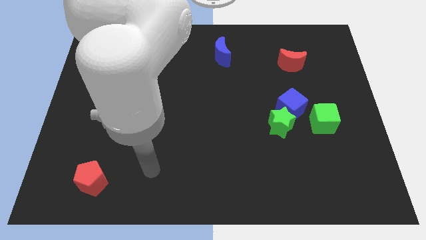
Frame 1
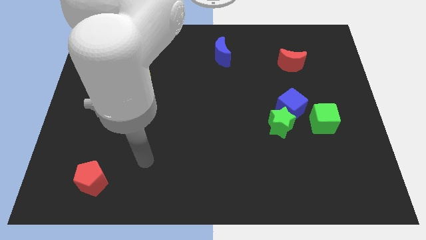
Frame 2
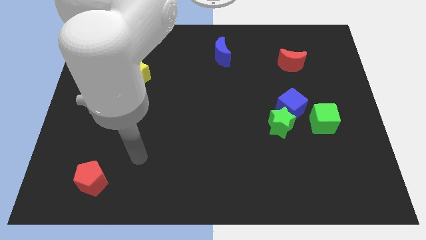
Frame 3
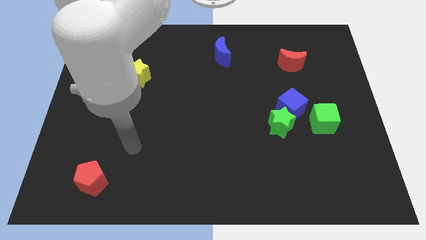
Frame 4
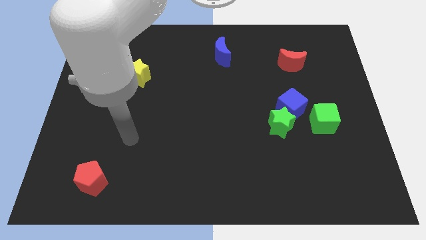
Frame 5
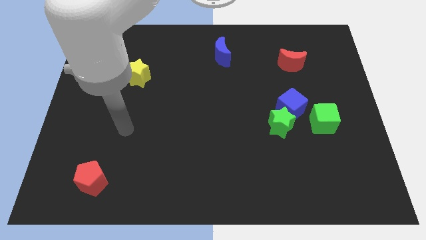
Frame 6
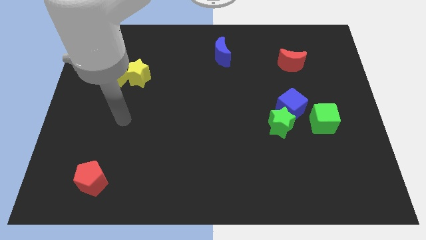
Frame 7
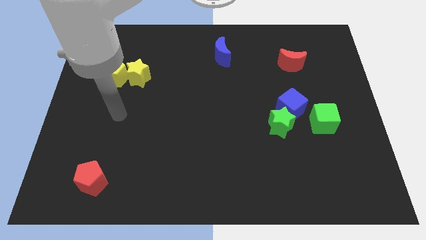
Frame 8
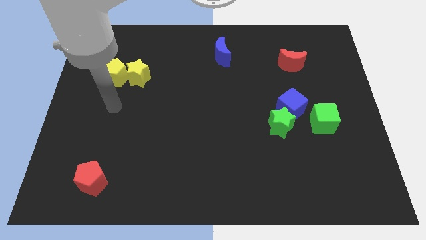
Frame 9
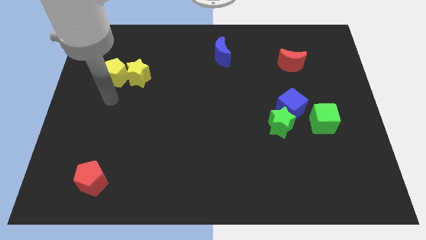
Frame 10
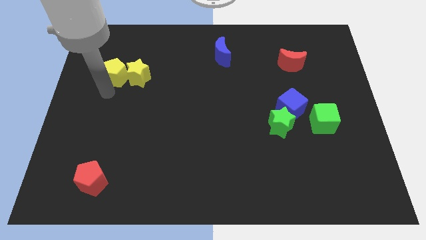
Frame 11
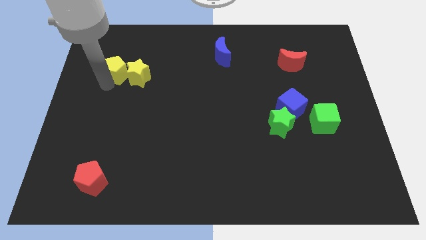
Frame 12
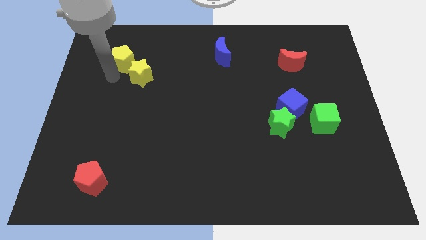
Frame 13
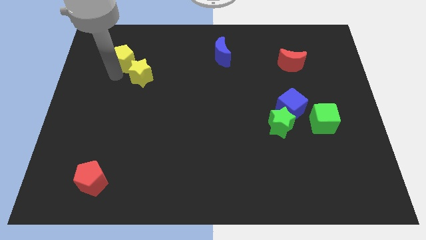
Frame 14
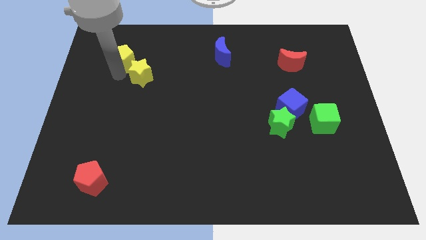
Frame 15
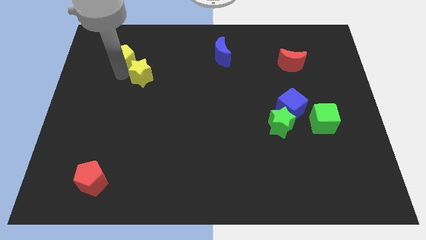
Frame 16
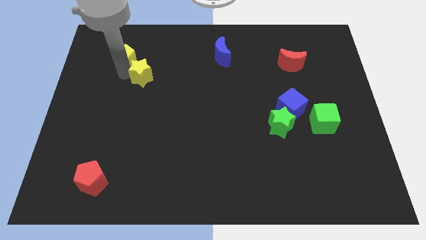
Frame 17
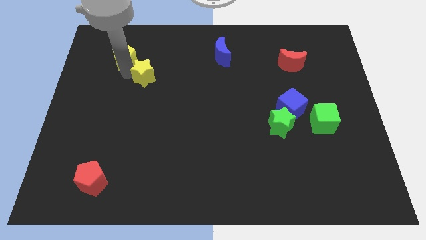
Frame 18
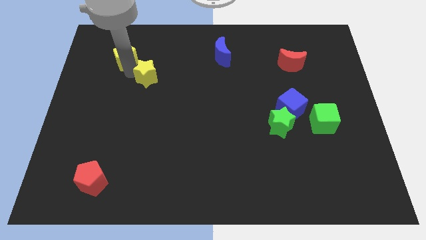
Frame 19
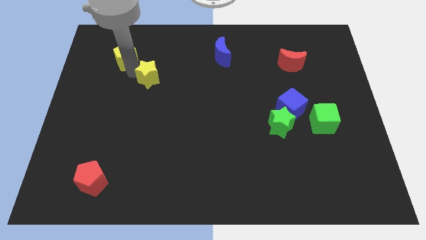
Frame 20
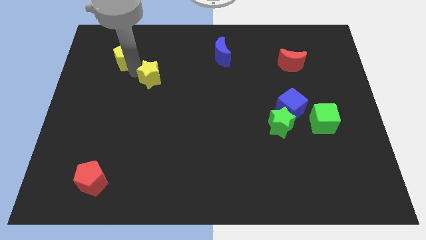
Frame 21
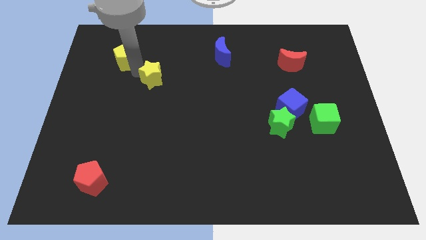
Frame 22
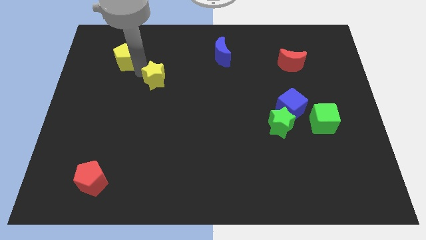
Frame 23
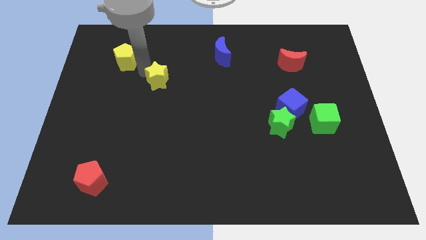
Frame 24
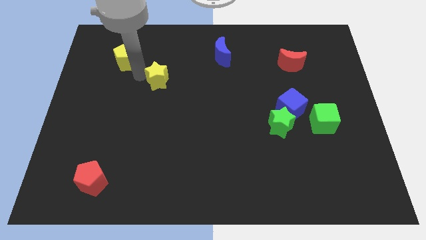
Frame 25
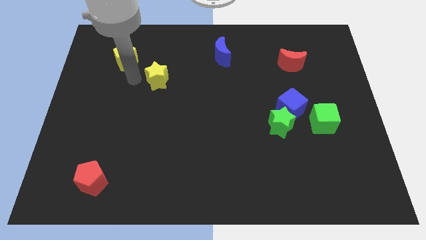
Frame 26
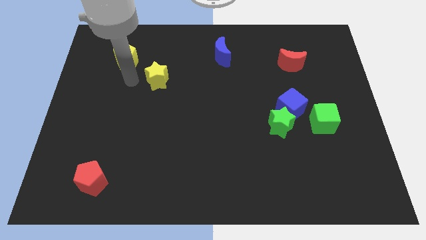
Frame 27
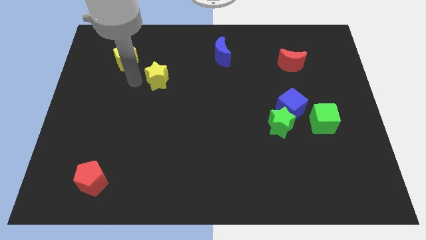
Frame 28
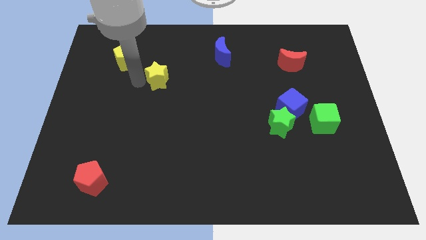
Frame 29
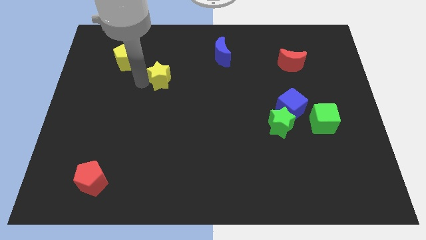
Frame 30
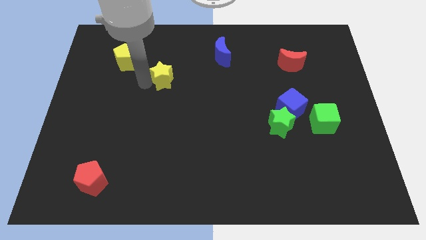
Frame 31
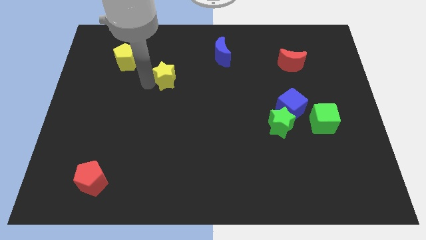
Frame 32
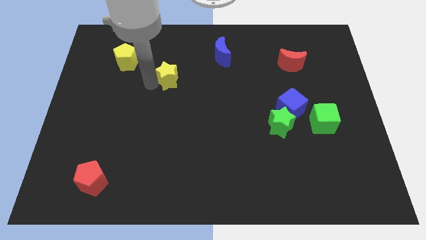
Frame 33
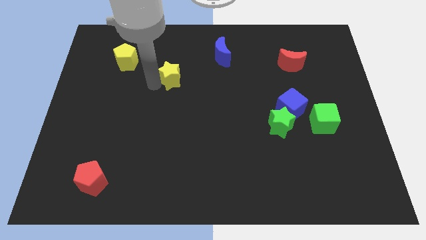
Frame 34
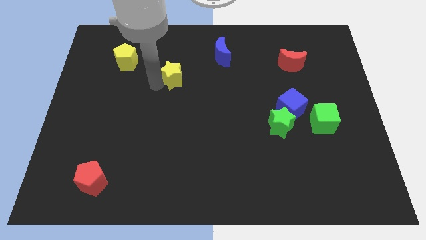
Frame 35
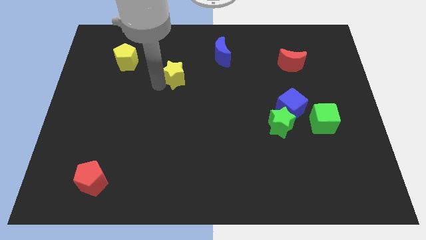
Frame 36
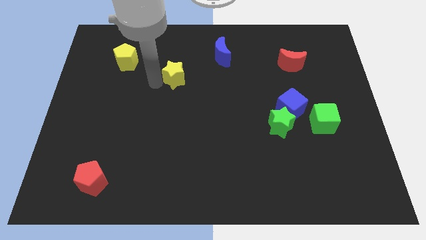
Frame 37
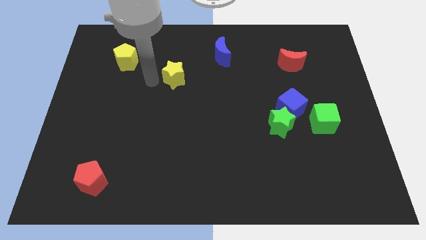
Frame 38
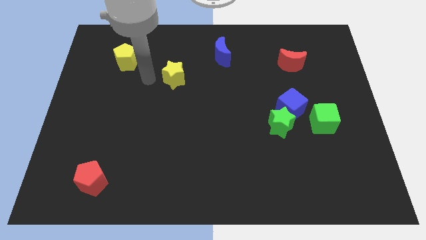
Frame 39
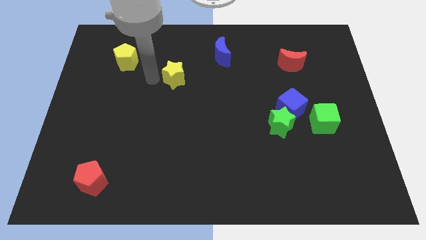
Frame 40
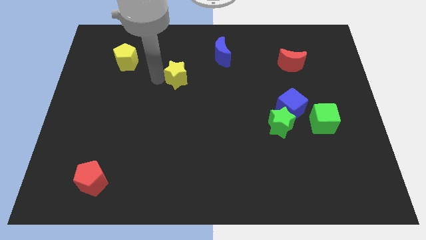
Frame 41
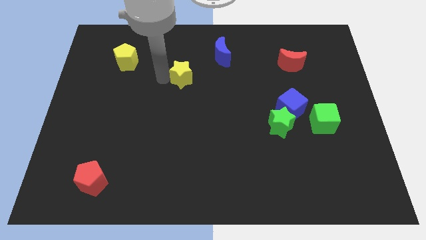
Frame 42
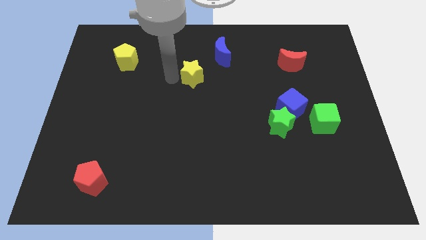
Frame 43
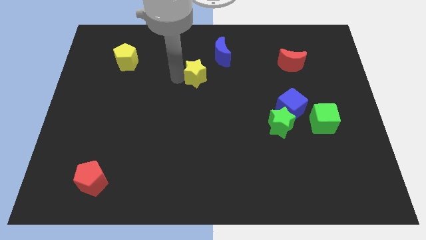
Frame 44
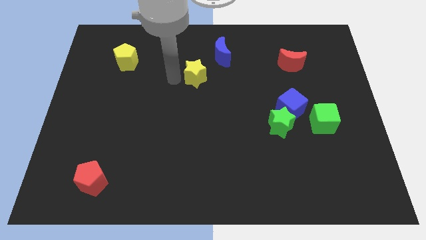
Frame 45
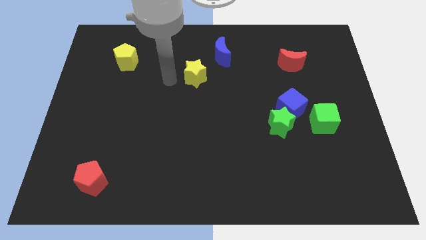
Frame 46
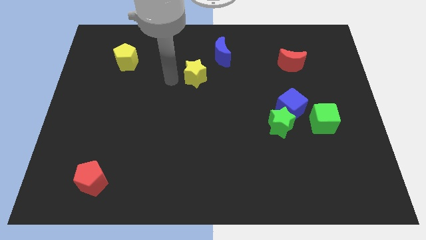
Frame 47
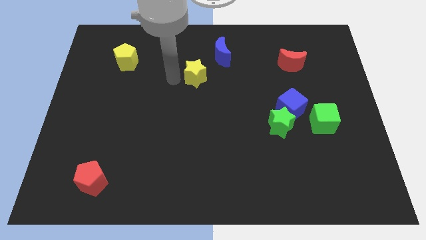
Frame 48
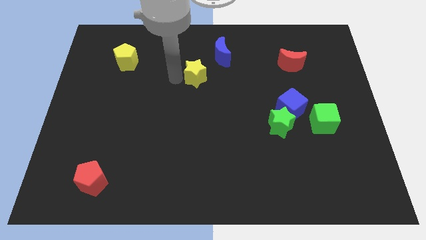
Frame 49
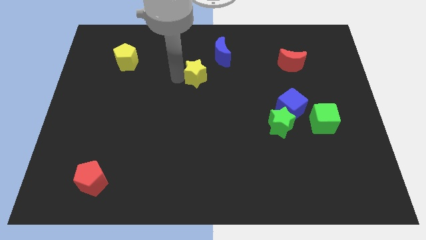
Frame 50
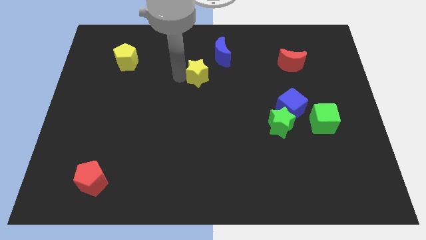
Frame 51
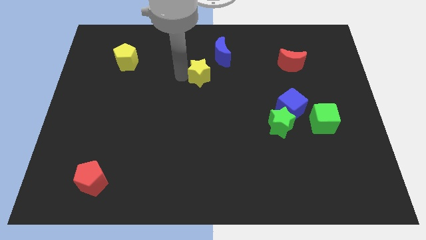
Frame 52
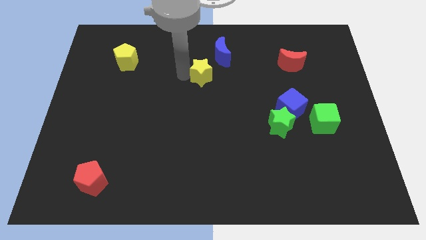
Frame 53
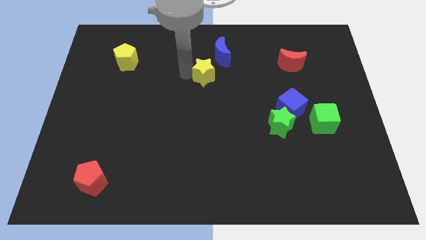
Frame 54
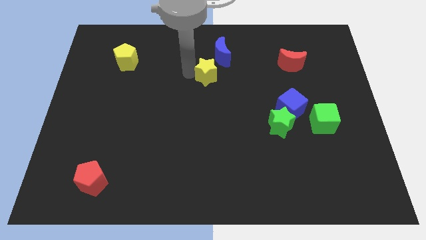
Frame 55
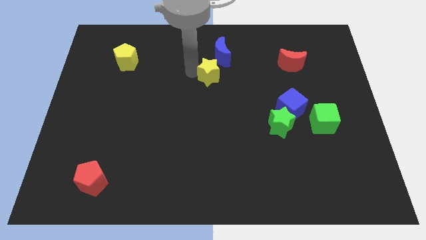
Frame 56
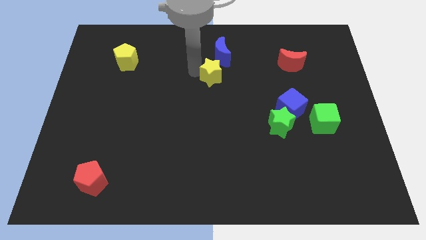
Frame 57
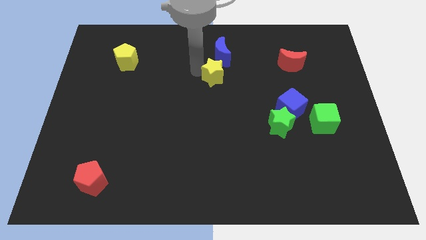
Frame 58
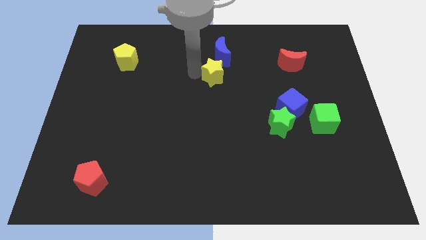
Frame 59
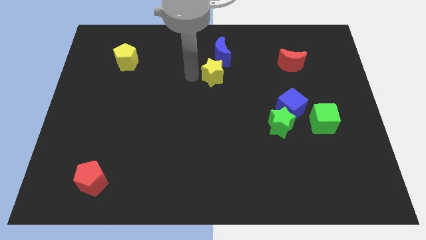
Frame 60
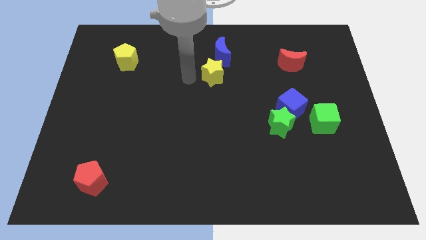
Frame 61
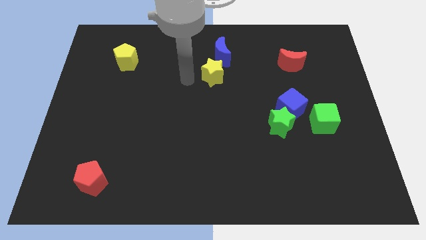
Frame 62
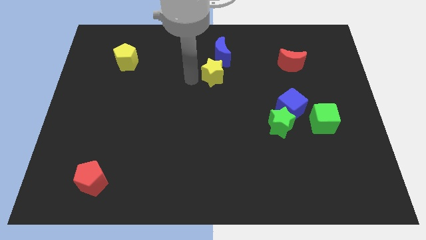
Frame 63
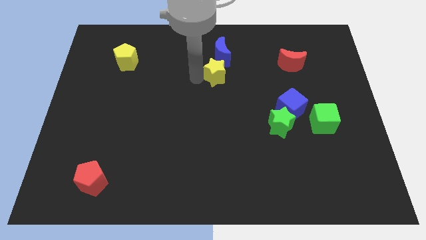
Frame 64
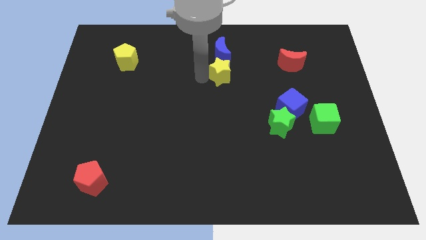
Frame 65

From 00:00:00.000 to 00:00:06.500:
slide the yellow star to the right

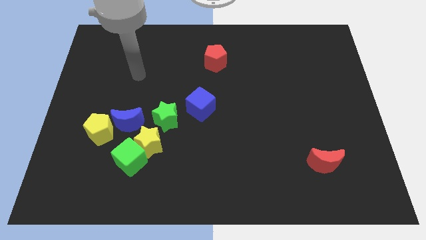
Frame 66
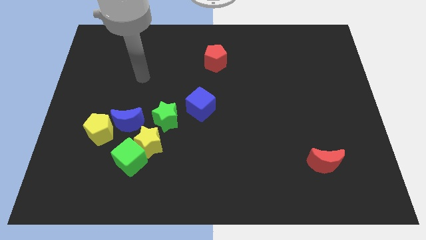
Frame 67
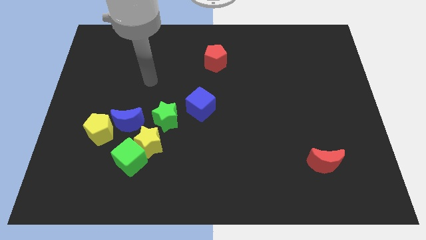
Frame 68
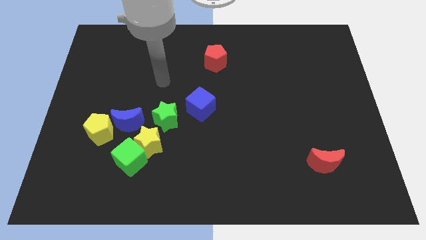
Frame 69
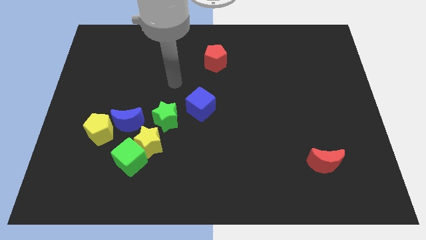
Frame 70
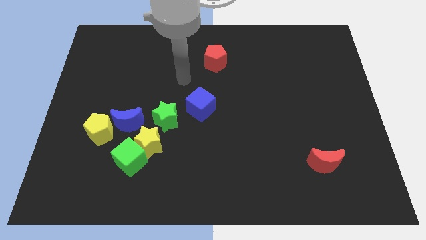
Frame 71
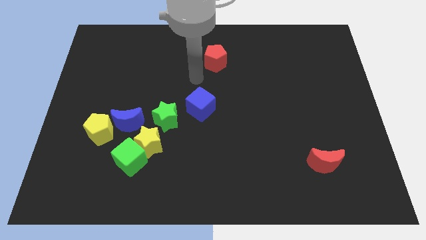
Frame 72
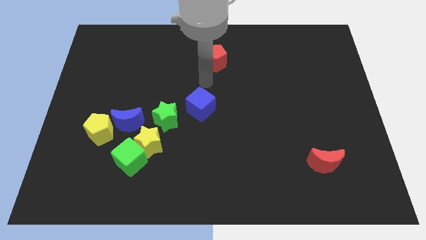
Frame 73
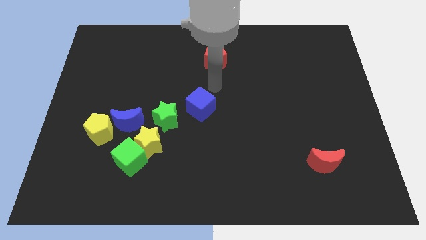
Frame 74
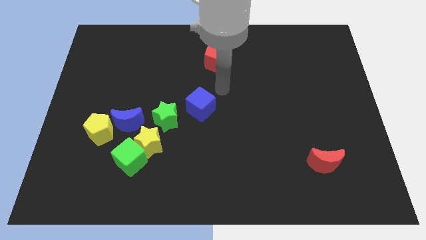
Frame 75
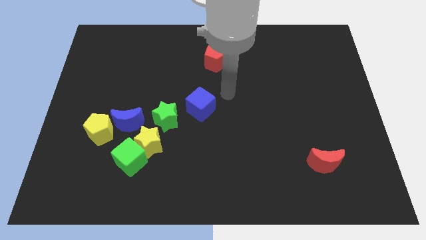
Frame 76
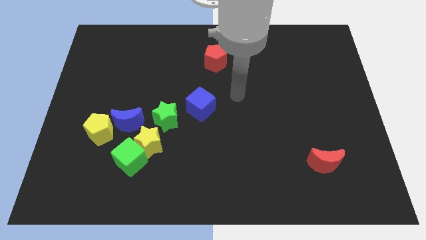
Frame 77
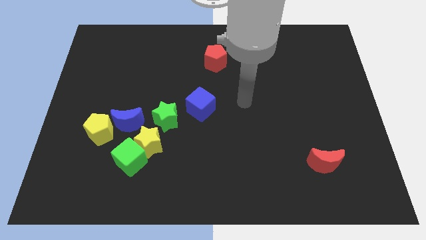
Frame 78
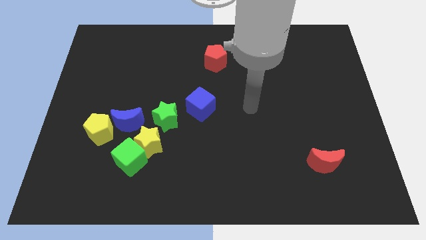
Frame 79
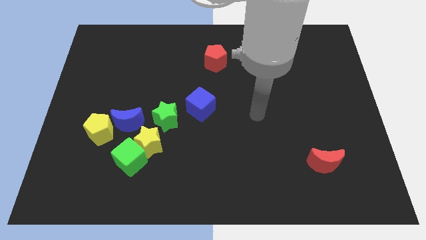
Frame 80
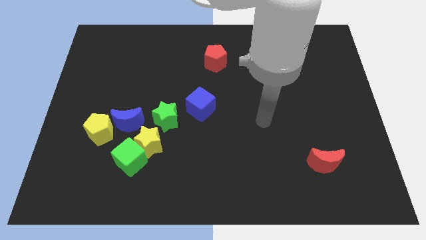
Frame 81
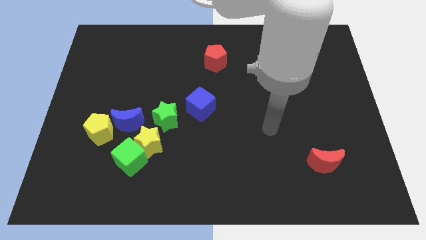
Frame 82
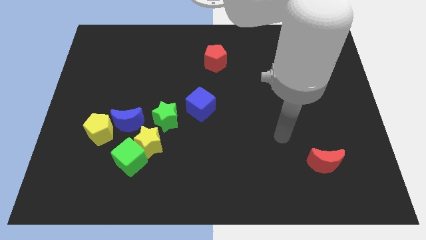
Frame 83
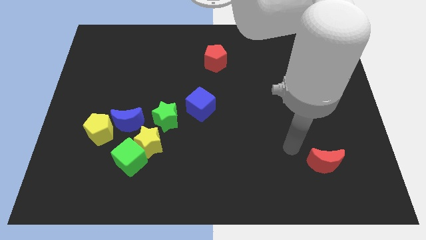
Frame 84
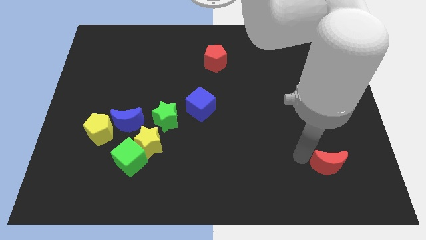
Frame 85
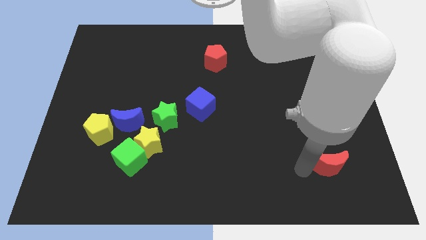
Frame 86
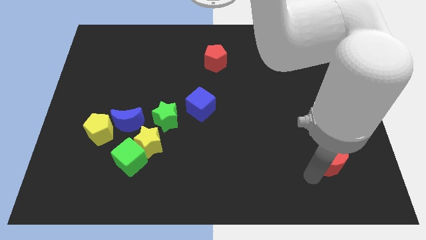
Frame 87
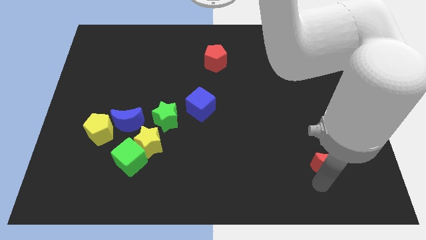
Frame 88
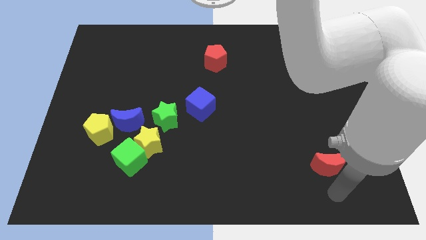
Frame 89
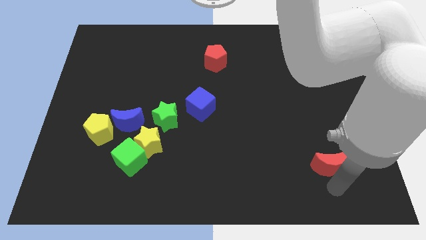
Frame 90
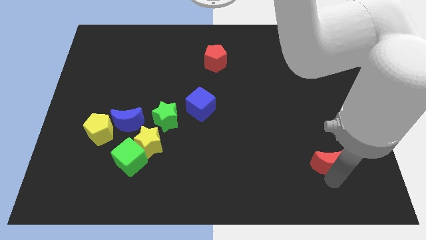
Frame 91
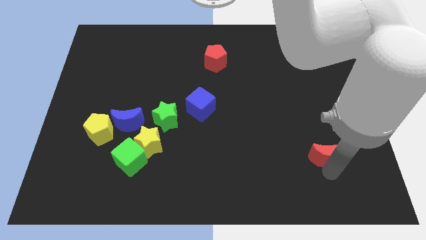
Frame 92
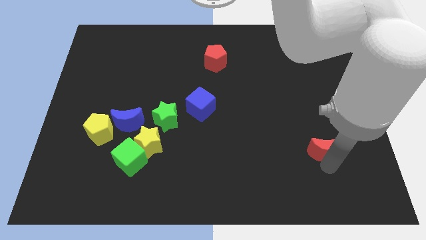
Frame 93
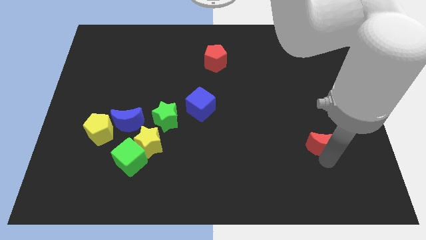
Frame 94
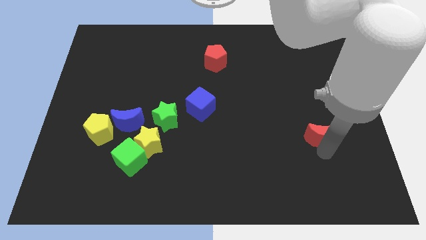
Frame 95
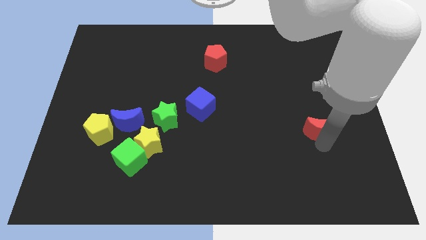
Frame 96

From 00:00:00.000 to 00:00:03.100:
move the red moon upwards a little
